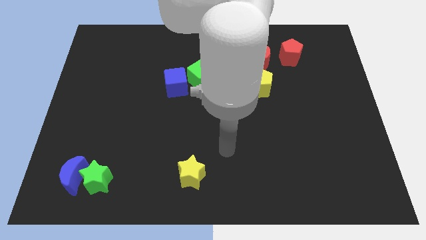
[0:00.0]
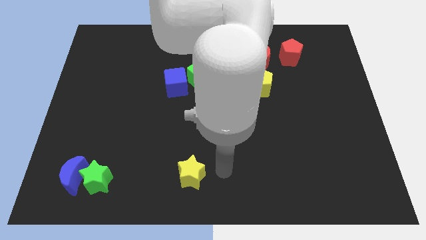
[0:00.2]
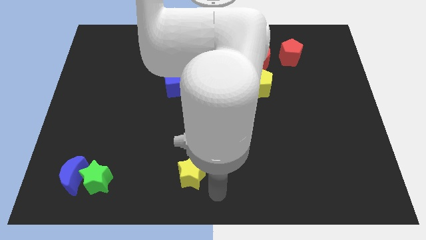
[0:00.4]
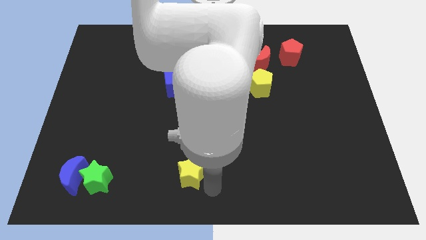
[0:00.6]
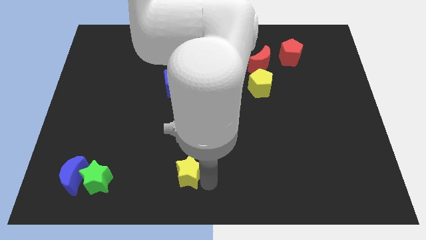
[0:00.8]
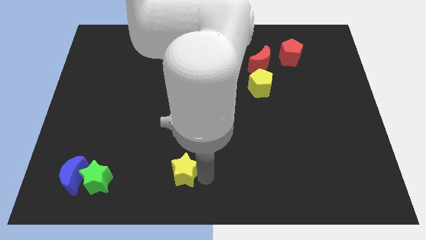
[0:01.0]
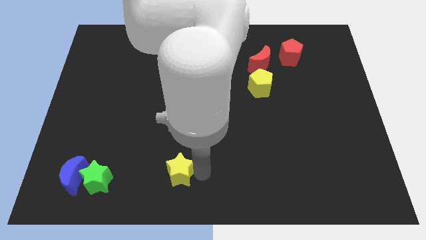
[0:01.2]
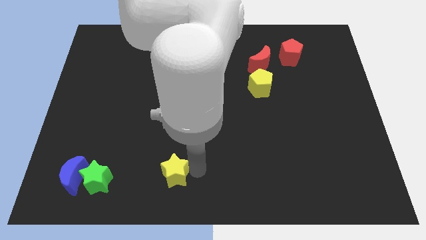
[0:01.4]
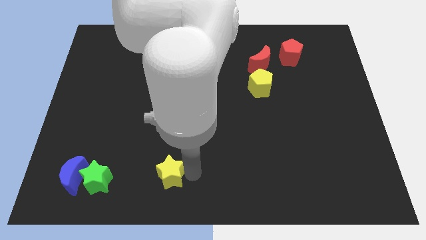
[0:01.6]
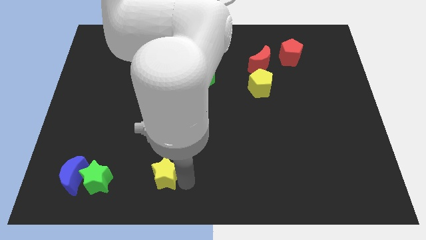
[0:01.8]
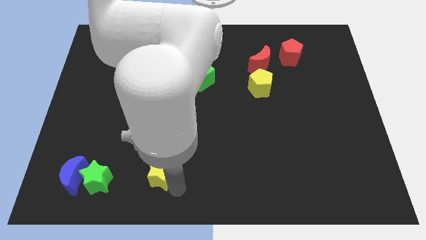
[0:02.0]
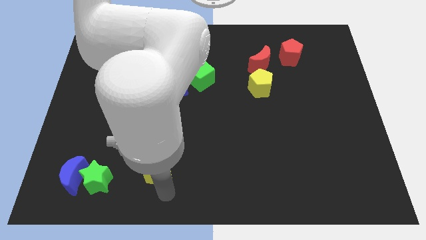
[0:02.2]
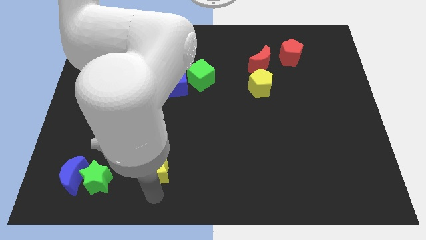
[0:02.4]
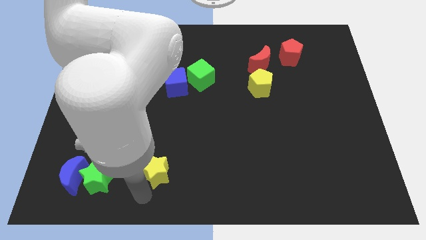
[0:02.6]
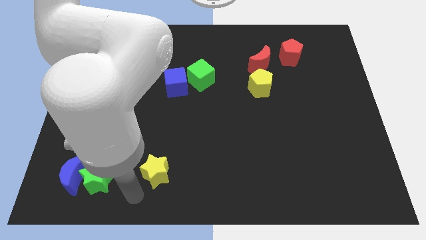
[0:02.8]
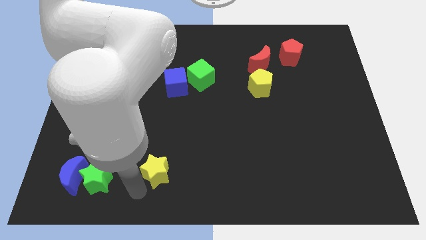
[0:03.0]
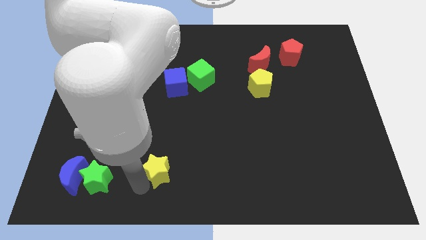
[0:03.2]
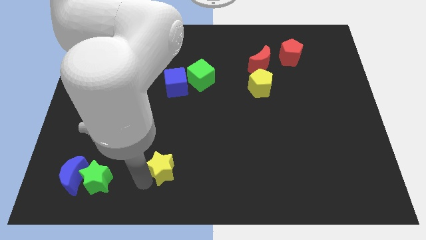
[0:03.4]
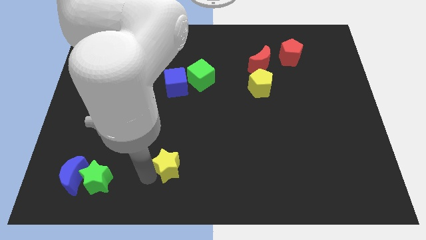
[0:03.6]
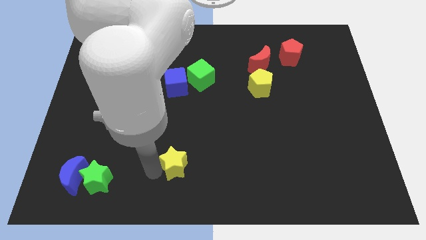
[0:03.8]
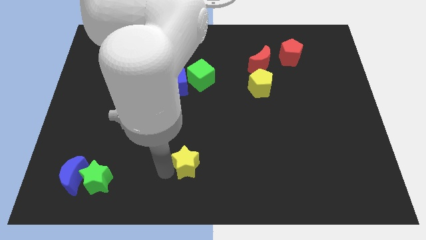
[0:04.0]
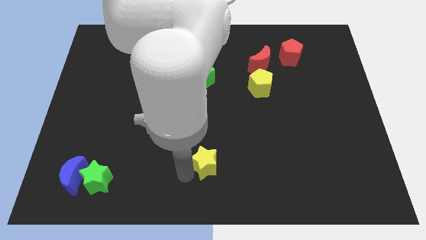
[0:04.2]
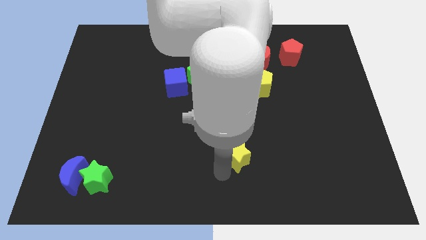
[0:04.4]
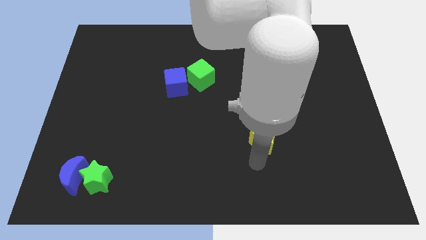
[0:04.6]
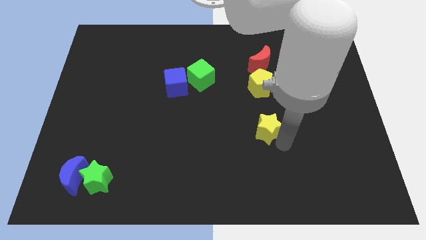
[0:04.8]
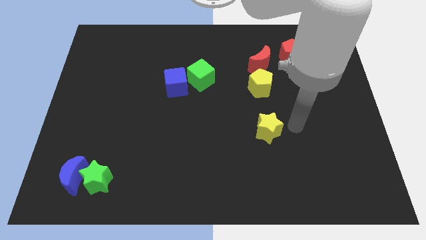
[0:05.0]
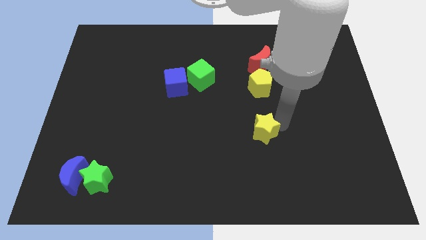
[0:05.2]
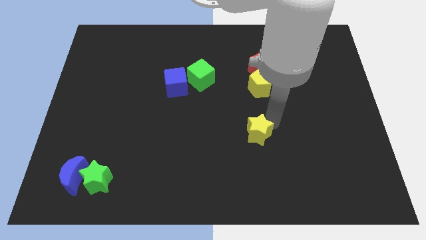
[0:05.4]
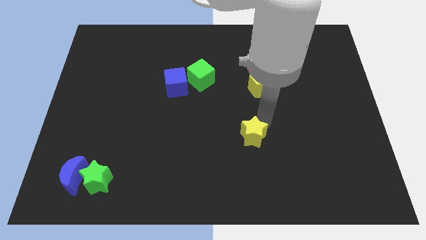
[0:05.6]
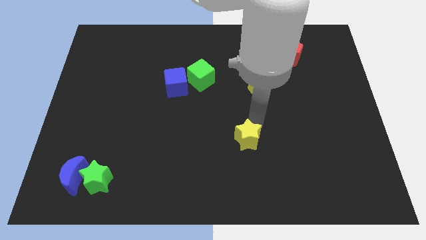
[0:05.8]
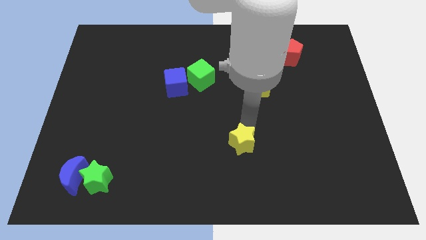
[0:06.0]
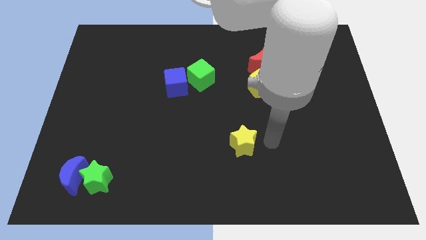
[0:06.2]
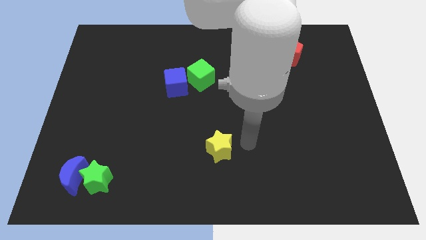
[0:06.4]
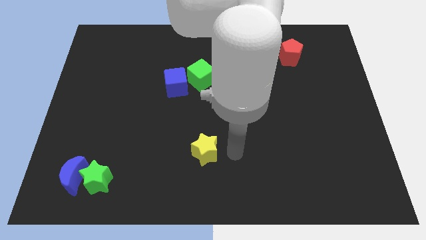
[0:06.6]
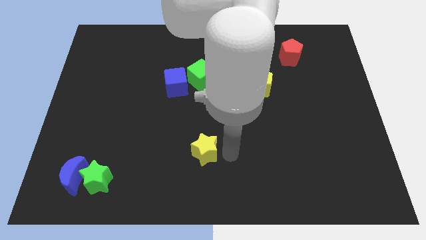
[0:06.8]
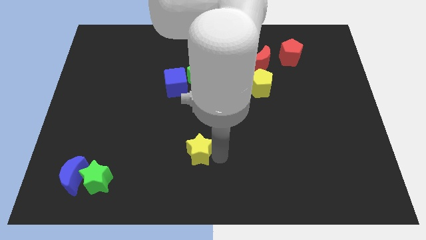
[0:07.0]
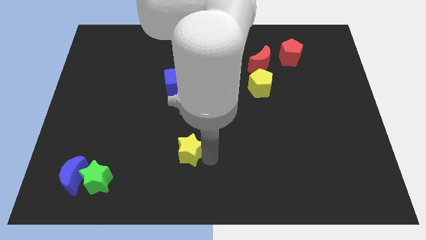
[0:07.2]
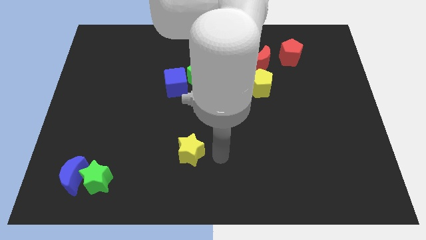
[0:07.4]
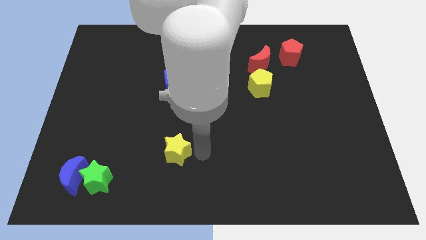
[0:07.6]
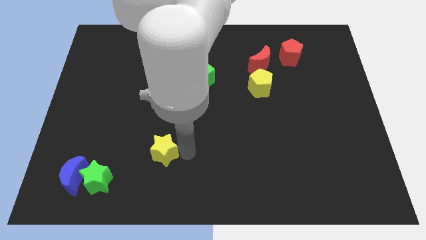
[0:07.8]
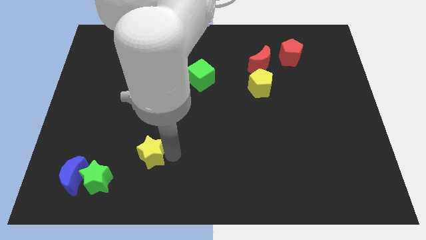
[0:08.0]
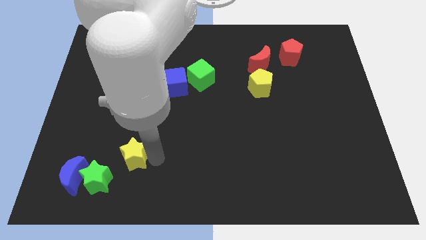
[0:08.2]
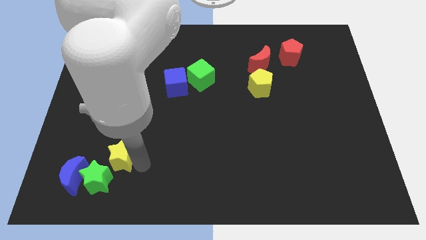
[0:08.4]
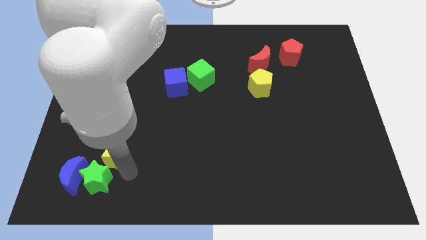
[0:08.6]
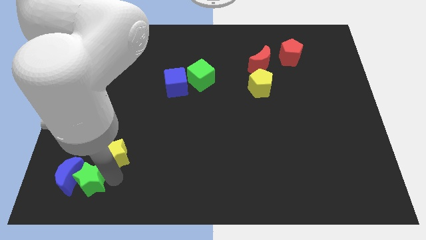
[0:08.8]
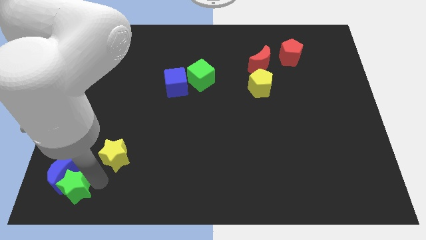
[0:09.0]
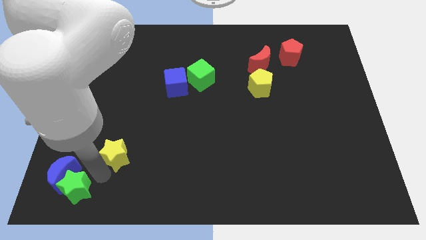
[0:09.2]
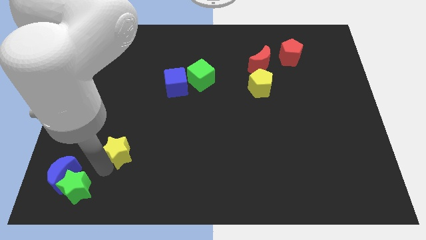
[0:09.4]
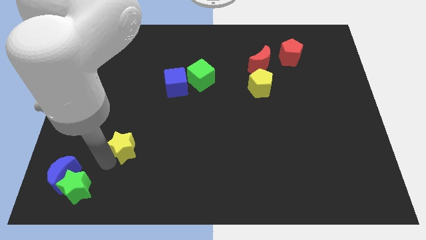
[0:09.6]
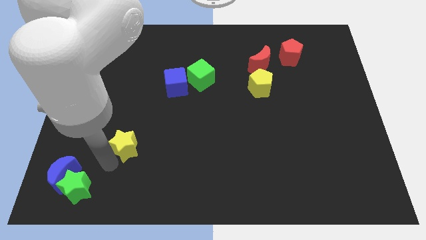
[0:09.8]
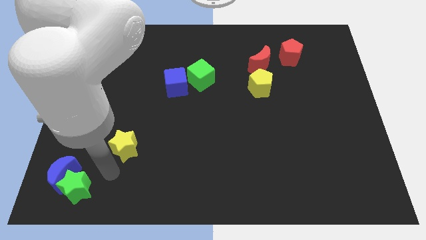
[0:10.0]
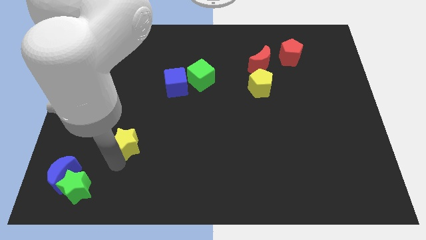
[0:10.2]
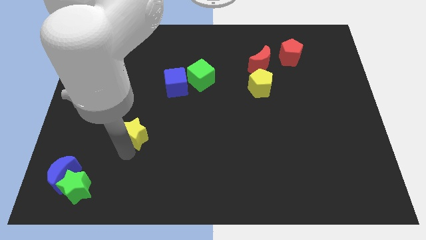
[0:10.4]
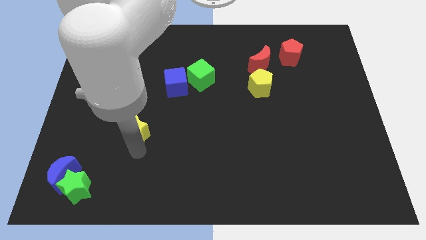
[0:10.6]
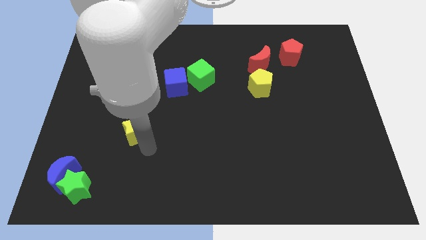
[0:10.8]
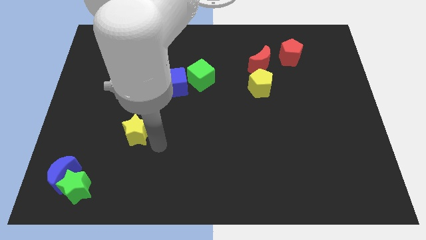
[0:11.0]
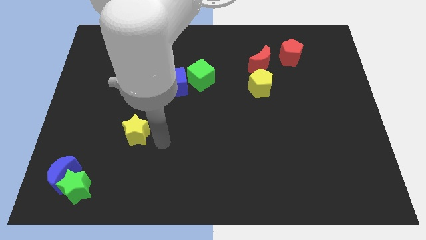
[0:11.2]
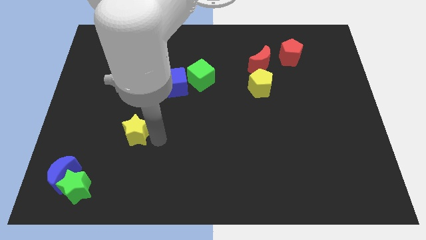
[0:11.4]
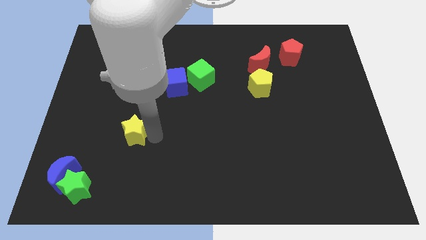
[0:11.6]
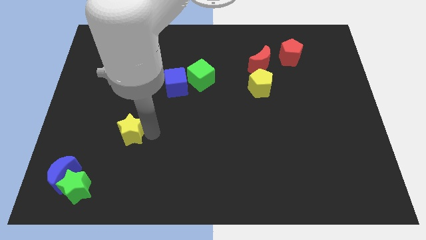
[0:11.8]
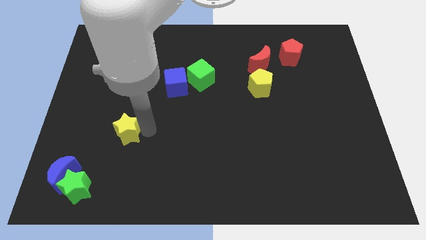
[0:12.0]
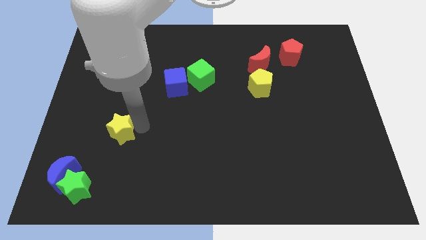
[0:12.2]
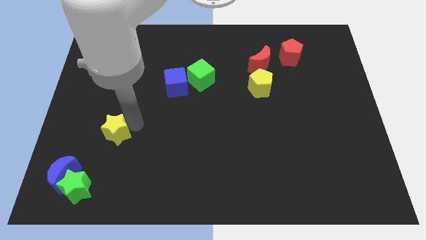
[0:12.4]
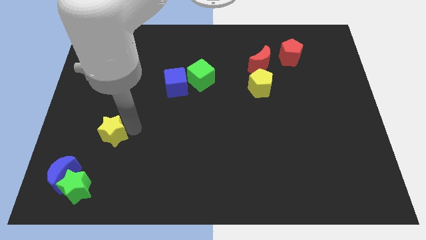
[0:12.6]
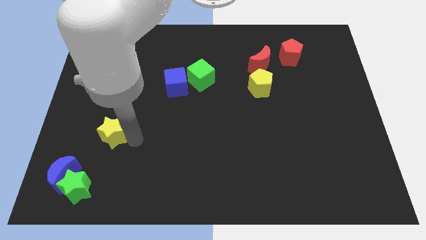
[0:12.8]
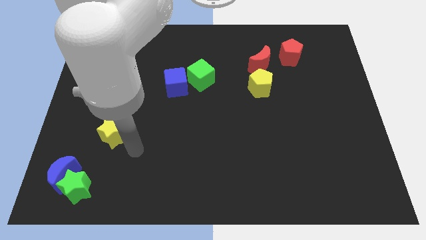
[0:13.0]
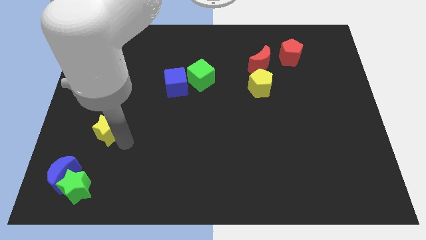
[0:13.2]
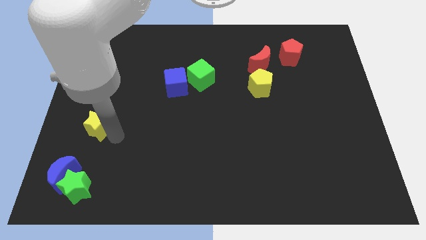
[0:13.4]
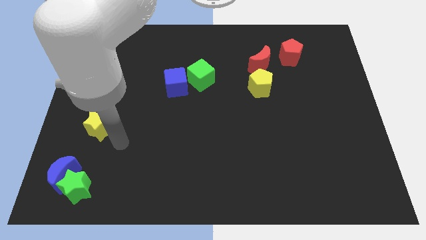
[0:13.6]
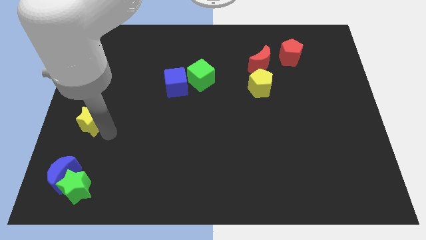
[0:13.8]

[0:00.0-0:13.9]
move the yellow star to the left side
